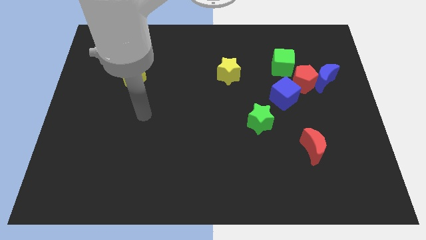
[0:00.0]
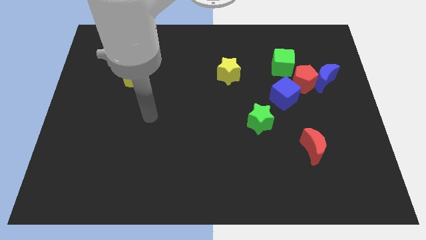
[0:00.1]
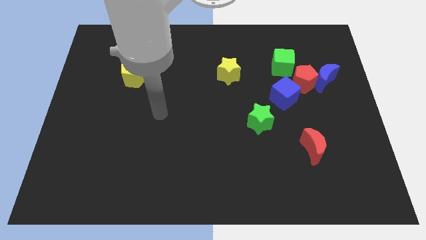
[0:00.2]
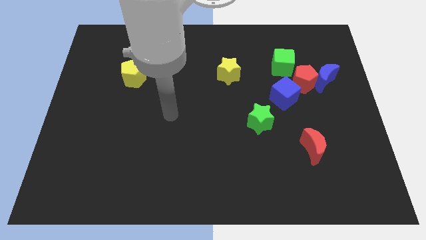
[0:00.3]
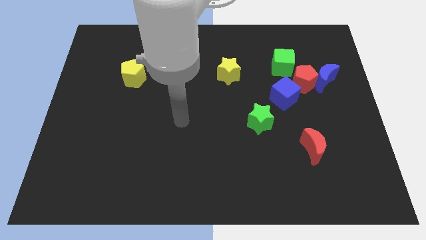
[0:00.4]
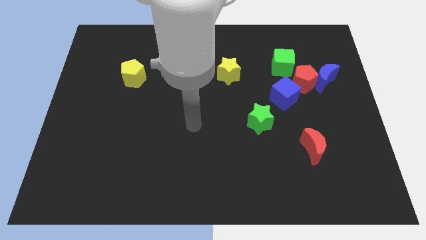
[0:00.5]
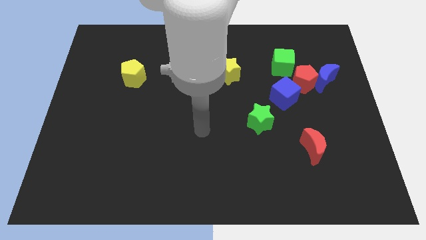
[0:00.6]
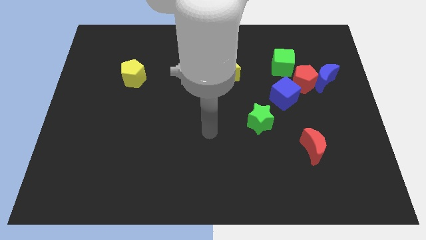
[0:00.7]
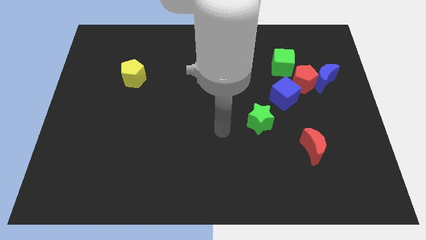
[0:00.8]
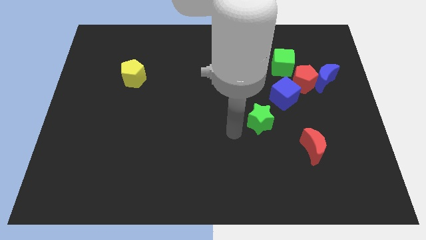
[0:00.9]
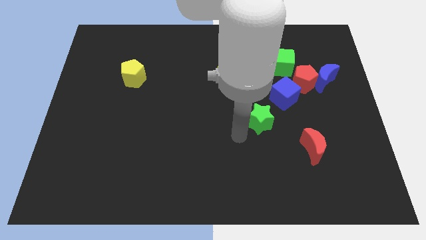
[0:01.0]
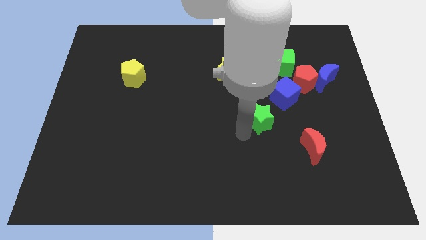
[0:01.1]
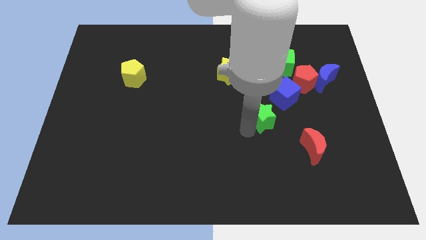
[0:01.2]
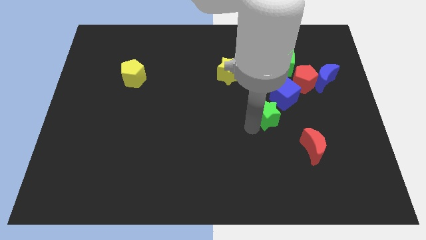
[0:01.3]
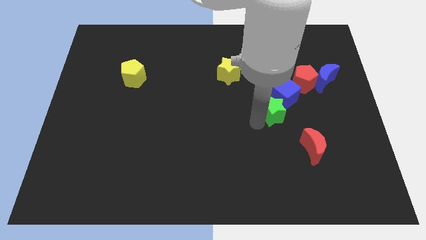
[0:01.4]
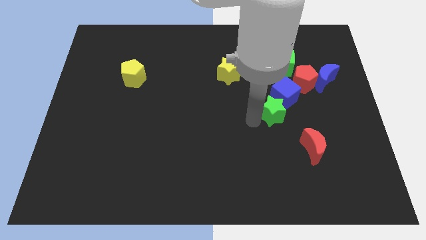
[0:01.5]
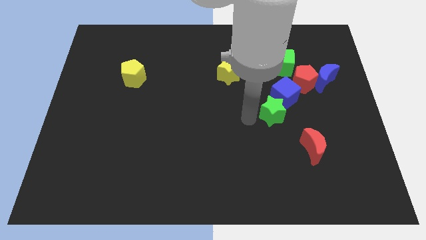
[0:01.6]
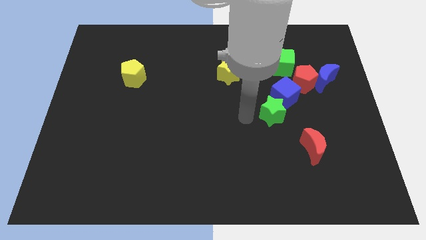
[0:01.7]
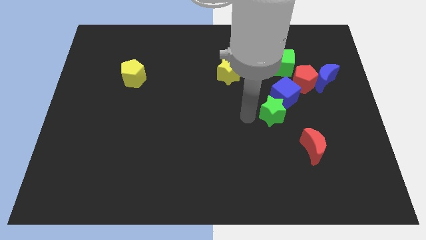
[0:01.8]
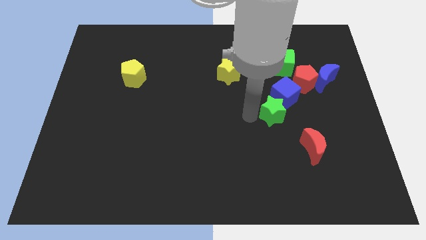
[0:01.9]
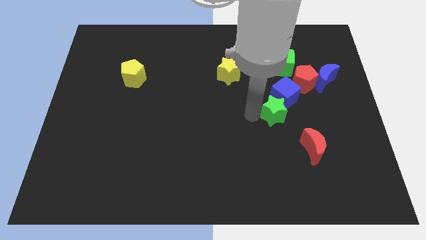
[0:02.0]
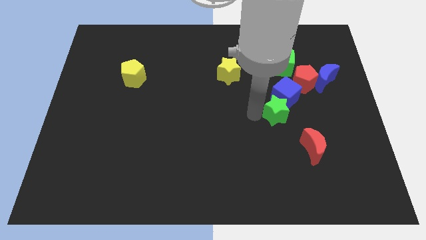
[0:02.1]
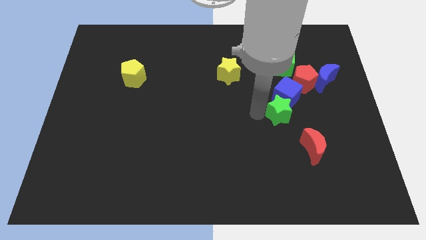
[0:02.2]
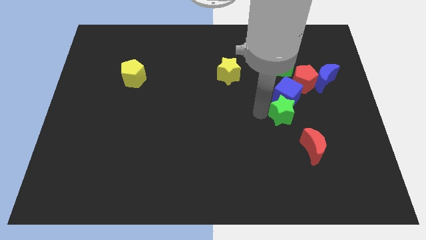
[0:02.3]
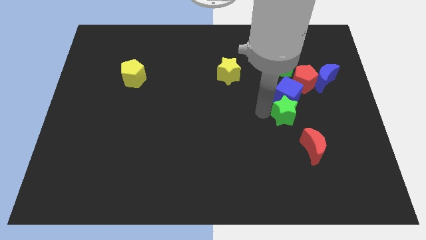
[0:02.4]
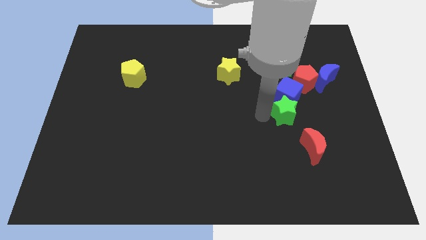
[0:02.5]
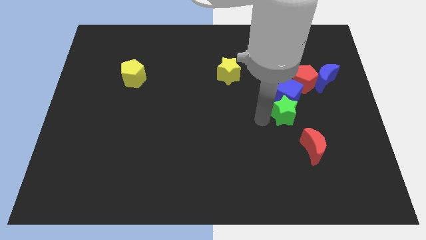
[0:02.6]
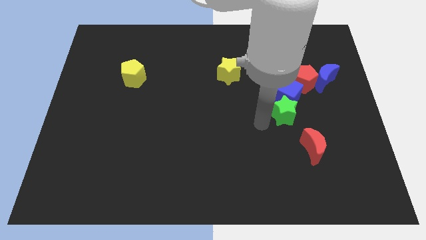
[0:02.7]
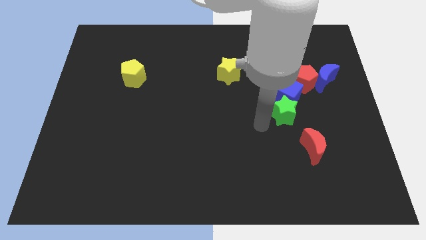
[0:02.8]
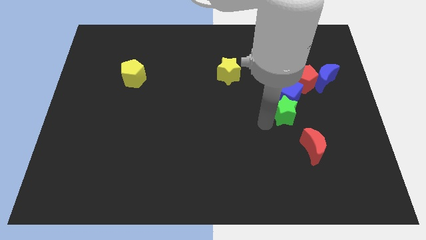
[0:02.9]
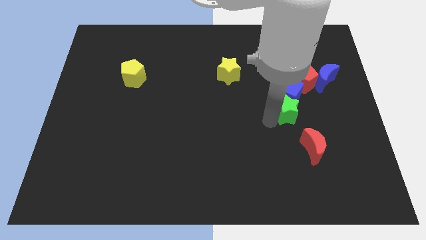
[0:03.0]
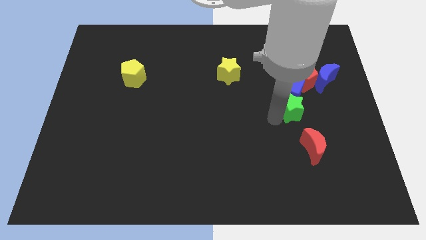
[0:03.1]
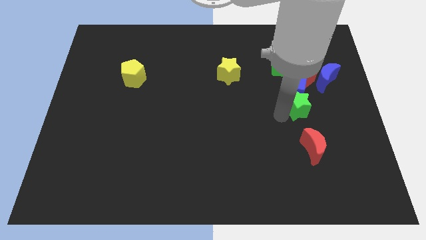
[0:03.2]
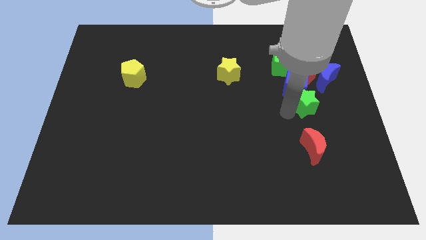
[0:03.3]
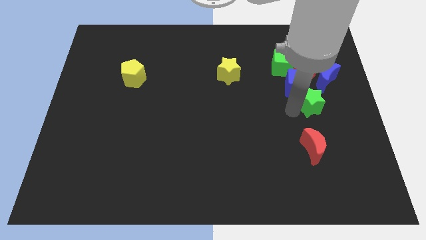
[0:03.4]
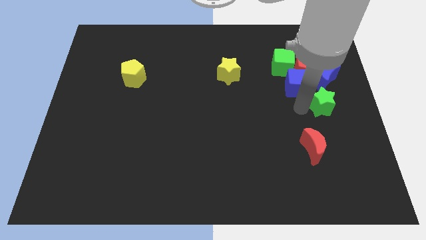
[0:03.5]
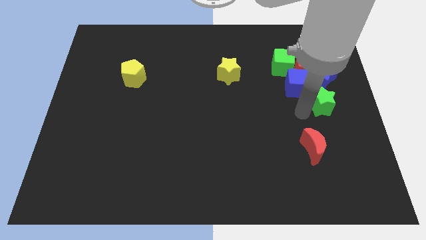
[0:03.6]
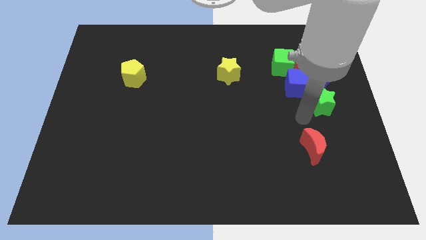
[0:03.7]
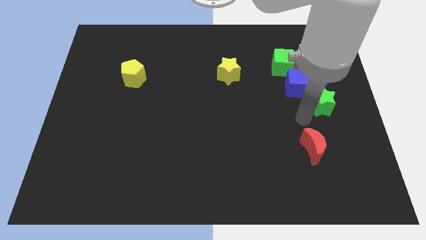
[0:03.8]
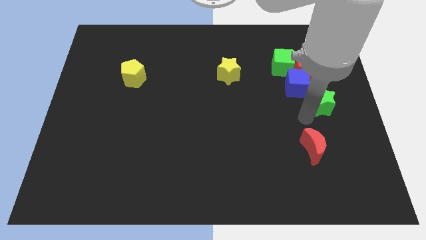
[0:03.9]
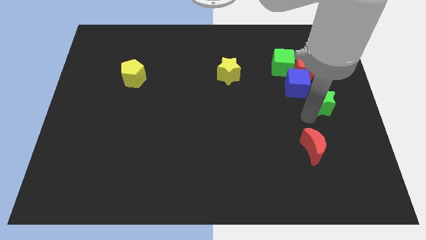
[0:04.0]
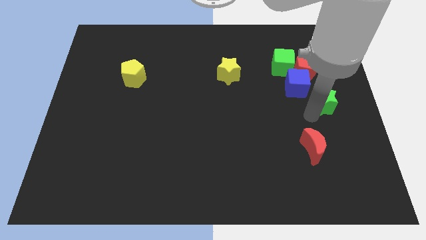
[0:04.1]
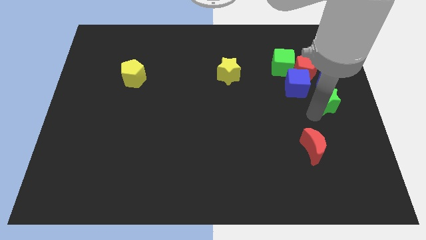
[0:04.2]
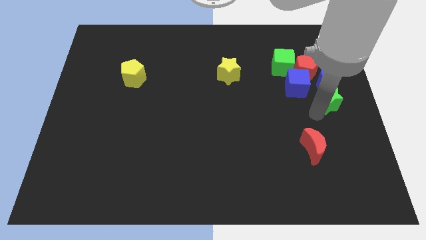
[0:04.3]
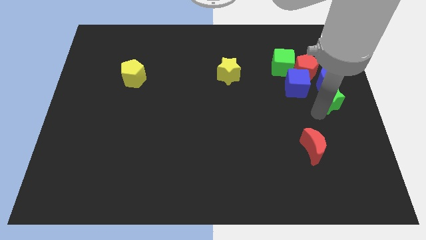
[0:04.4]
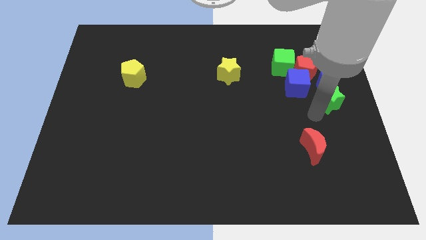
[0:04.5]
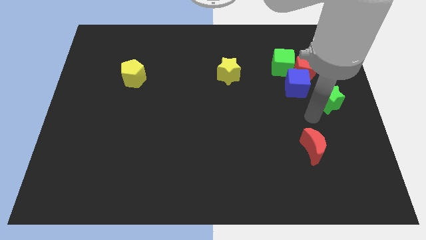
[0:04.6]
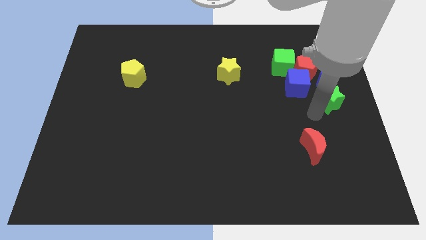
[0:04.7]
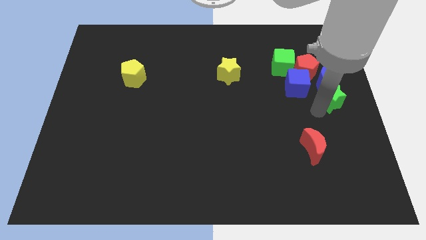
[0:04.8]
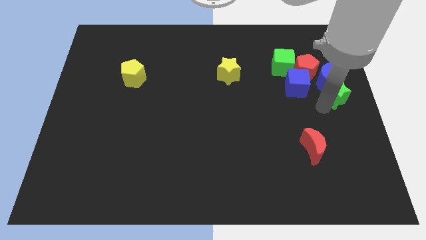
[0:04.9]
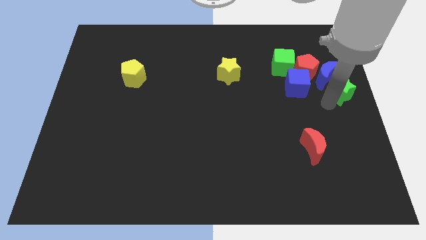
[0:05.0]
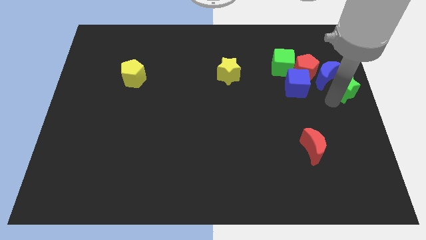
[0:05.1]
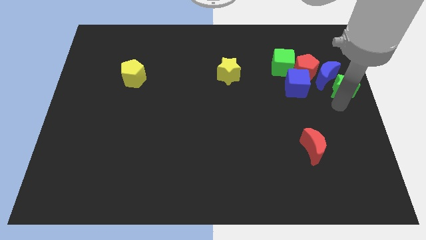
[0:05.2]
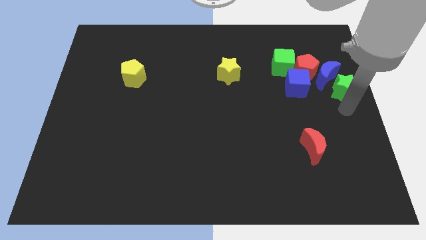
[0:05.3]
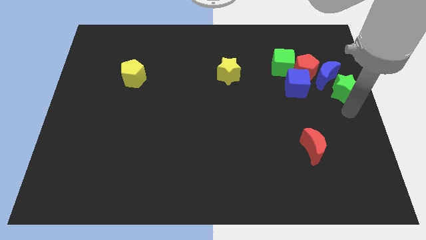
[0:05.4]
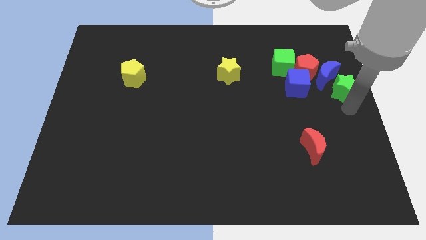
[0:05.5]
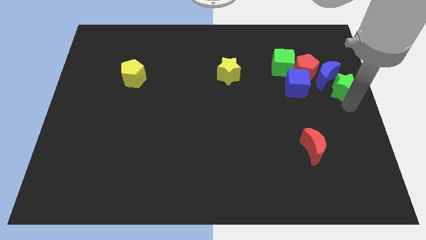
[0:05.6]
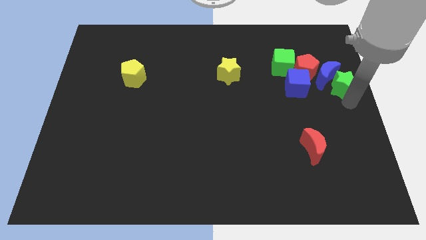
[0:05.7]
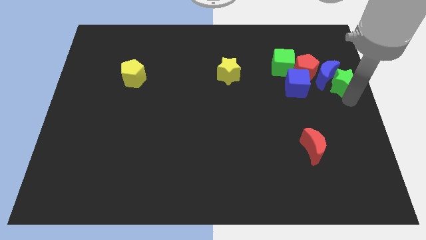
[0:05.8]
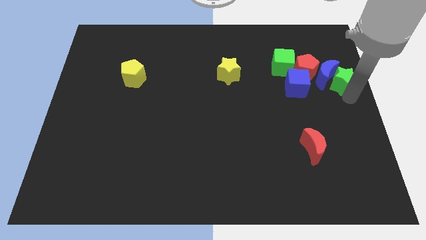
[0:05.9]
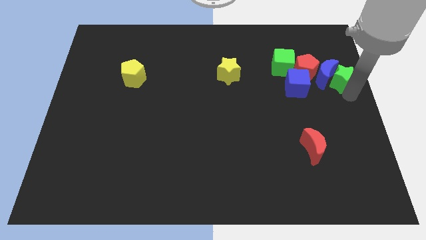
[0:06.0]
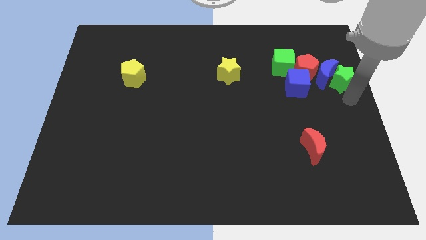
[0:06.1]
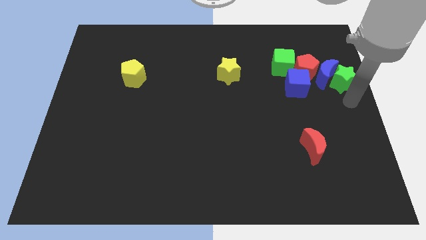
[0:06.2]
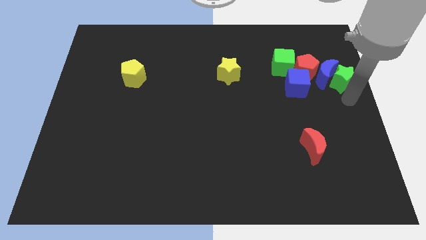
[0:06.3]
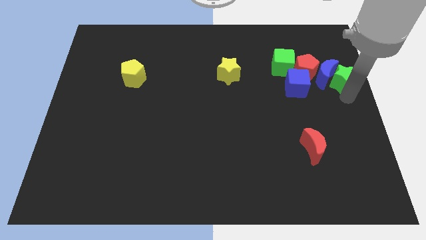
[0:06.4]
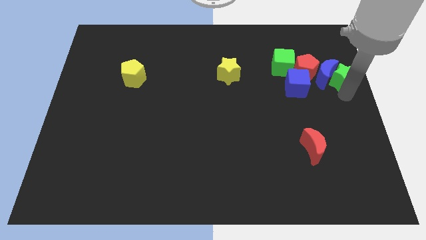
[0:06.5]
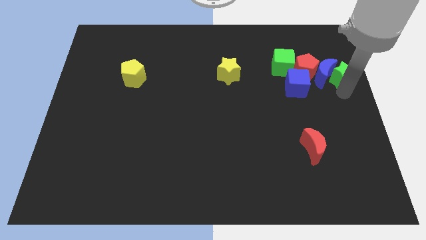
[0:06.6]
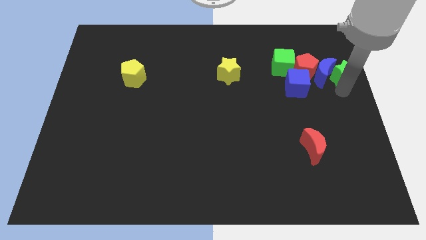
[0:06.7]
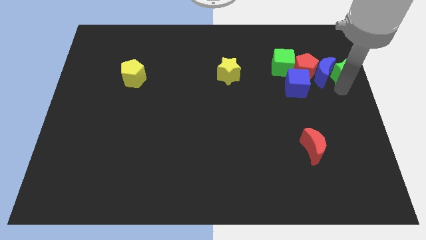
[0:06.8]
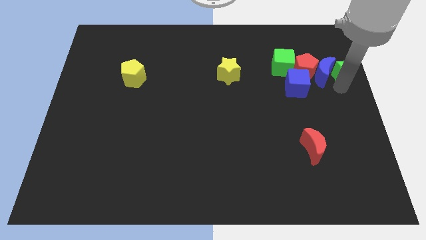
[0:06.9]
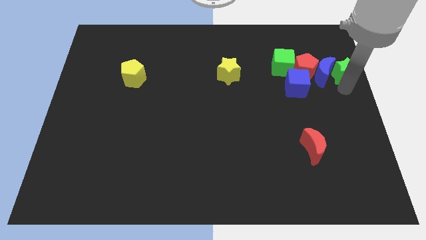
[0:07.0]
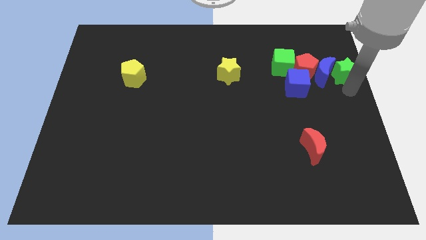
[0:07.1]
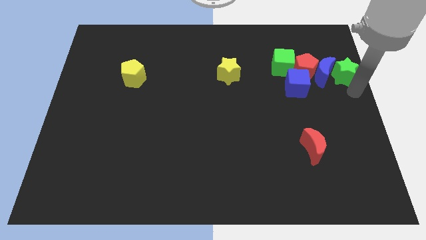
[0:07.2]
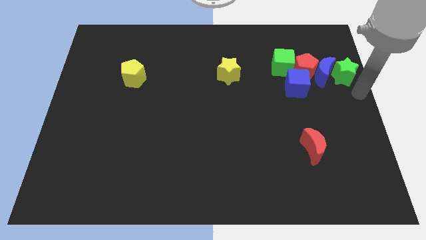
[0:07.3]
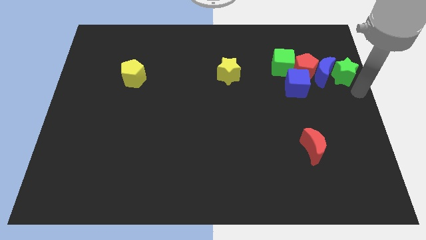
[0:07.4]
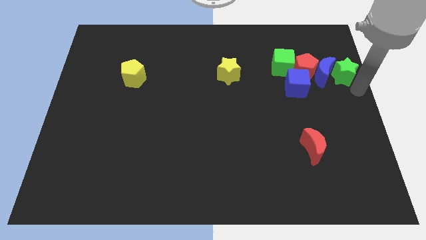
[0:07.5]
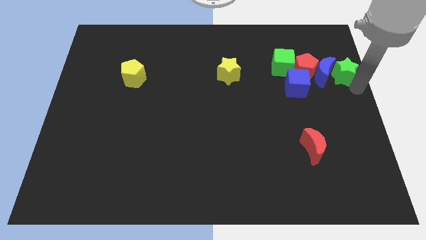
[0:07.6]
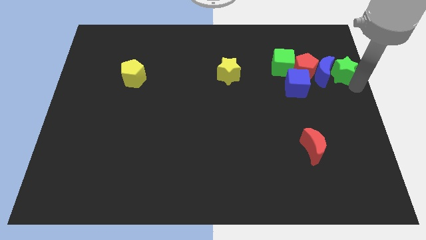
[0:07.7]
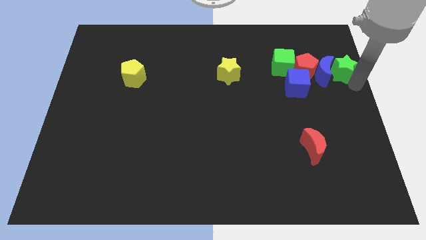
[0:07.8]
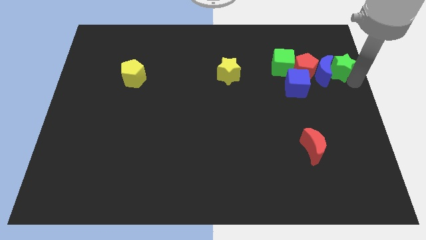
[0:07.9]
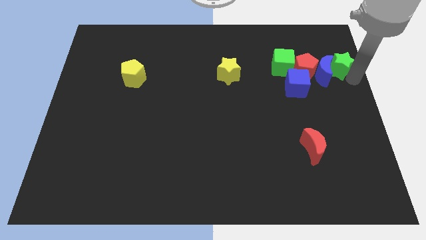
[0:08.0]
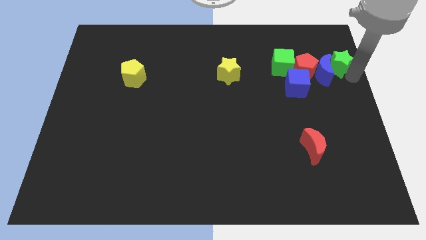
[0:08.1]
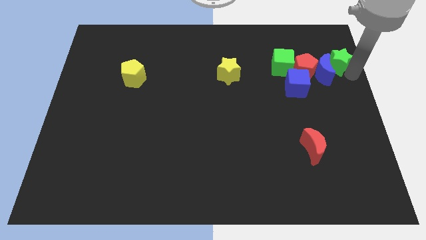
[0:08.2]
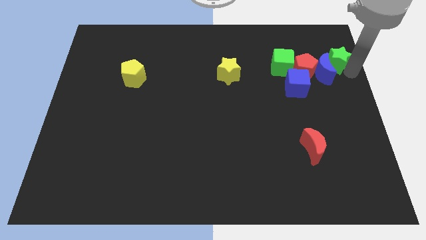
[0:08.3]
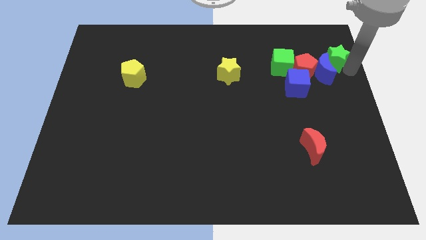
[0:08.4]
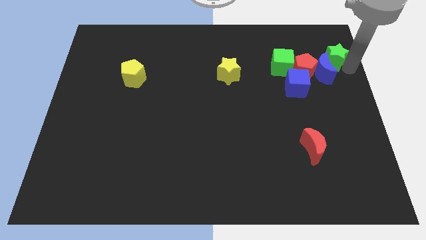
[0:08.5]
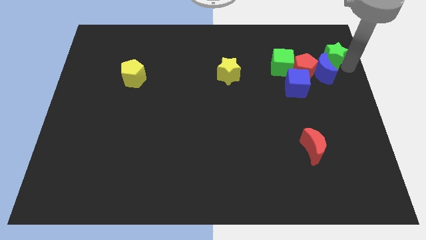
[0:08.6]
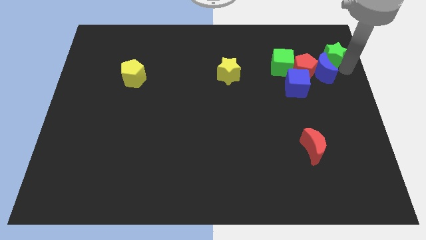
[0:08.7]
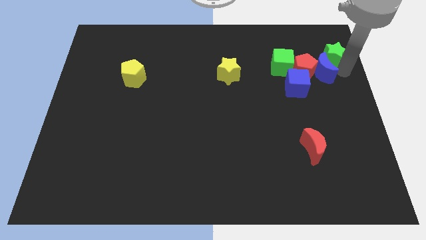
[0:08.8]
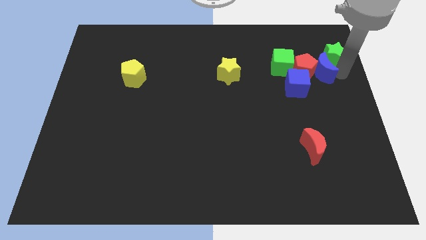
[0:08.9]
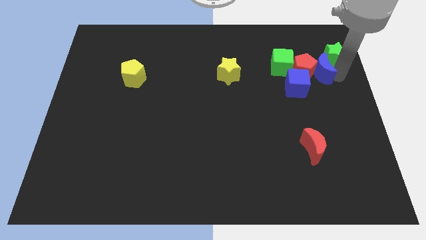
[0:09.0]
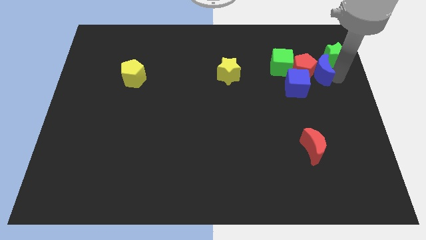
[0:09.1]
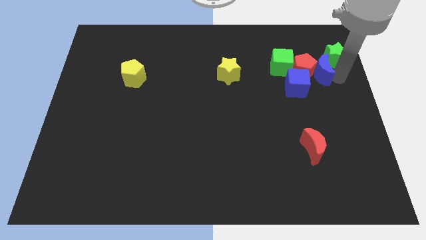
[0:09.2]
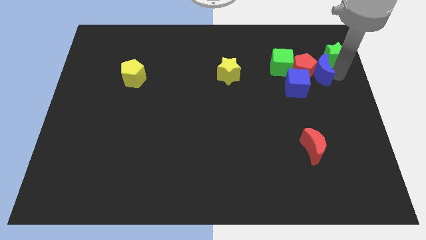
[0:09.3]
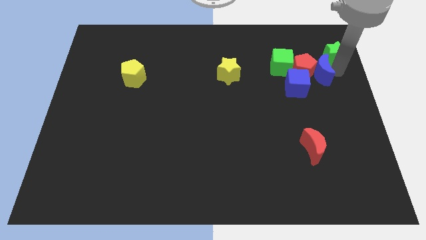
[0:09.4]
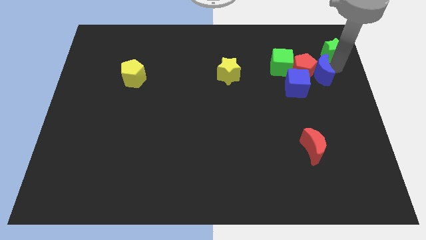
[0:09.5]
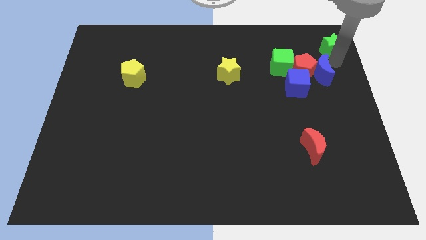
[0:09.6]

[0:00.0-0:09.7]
push the green star to the top right corner
